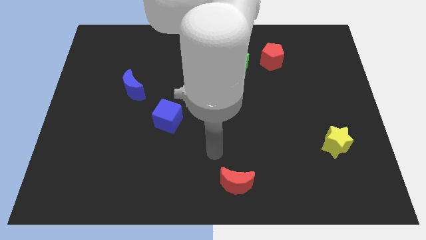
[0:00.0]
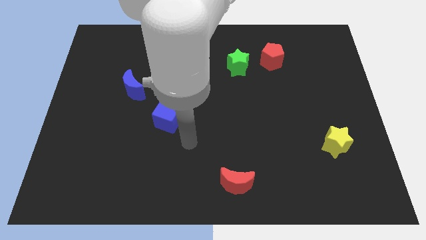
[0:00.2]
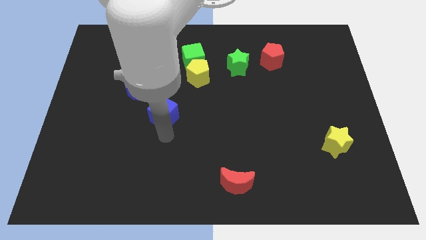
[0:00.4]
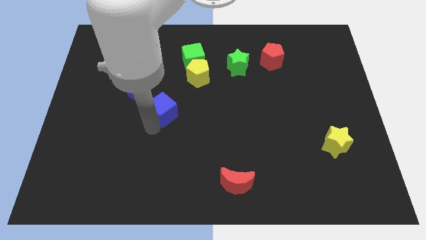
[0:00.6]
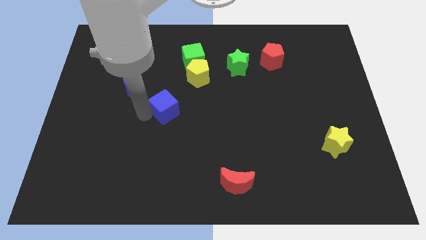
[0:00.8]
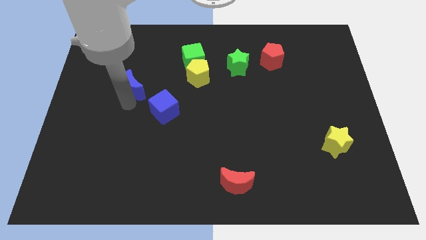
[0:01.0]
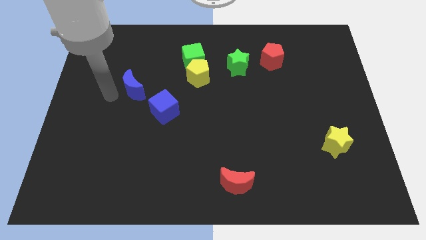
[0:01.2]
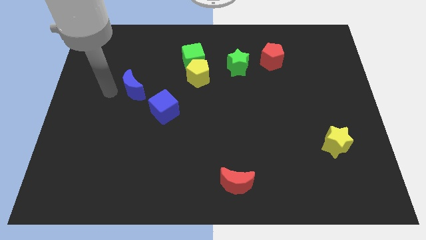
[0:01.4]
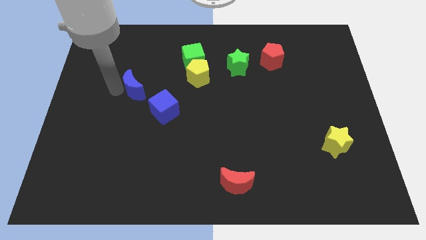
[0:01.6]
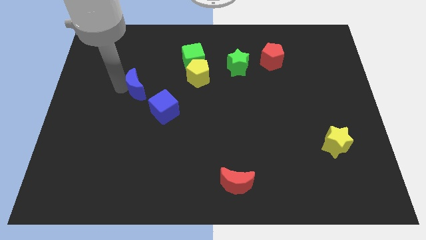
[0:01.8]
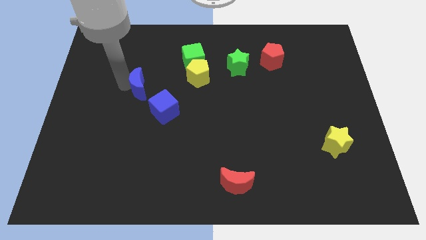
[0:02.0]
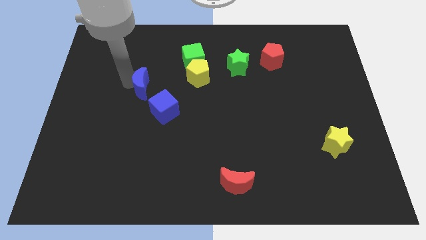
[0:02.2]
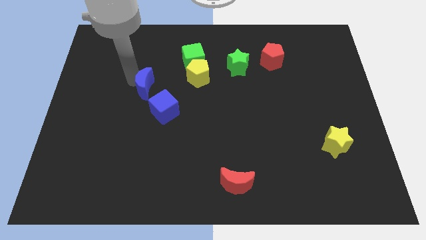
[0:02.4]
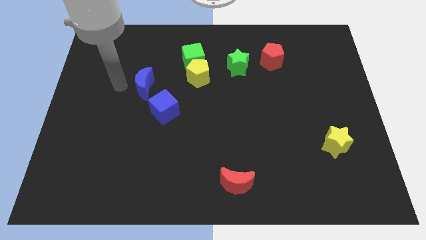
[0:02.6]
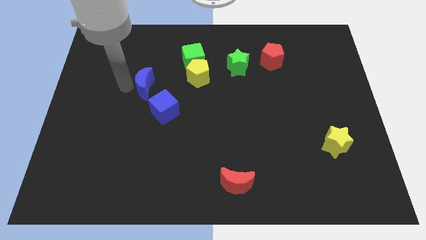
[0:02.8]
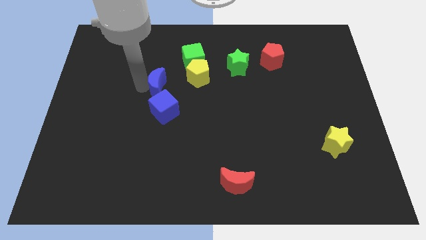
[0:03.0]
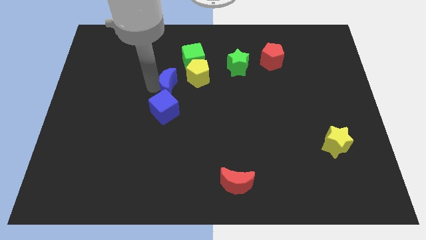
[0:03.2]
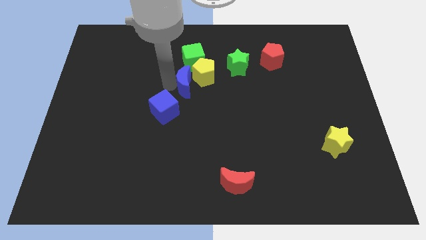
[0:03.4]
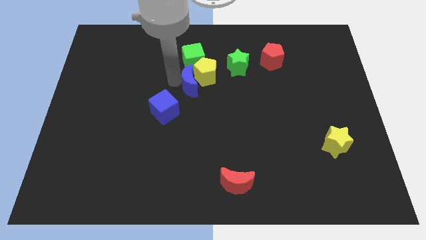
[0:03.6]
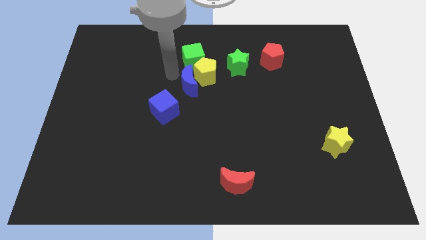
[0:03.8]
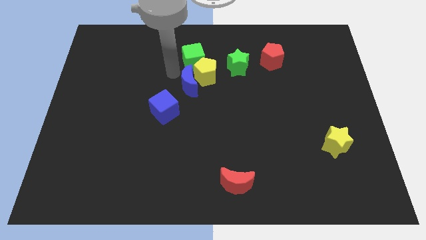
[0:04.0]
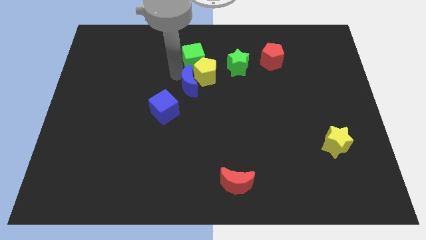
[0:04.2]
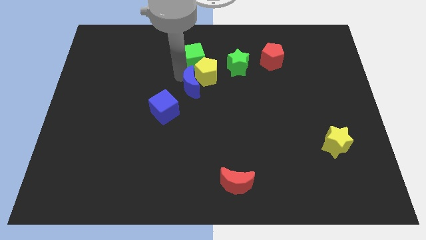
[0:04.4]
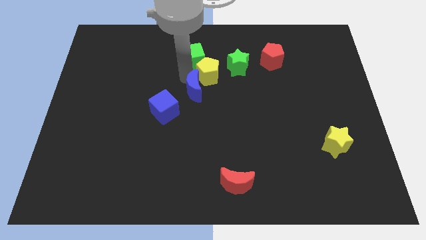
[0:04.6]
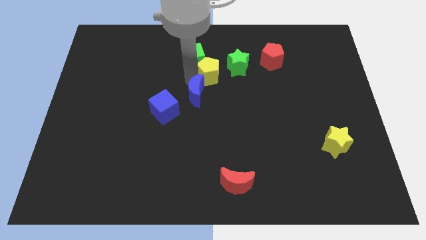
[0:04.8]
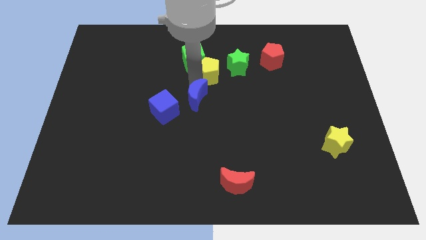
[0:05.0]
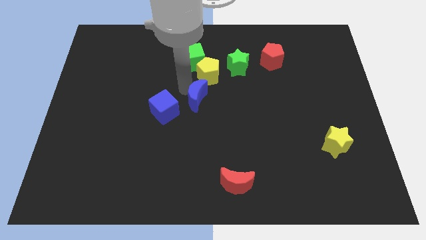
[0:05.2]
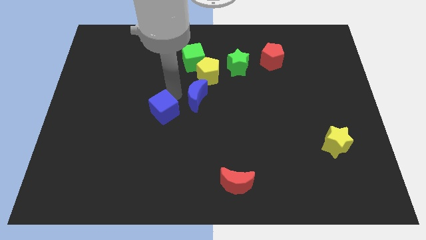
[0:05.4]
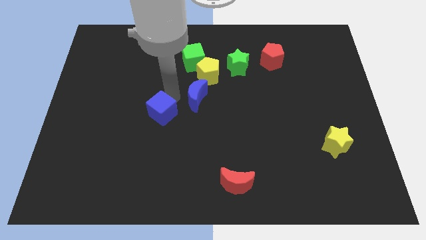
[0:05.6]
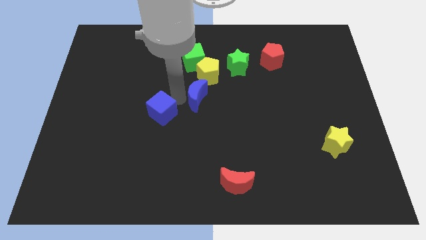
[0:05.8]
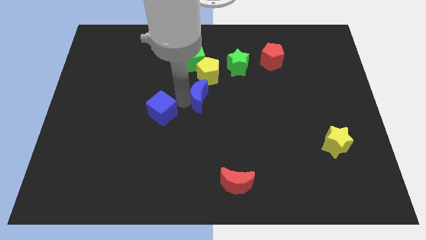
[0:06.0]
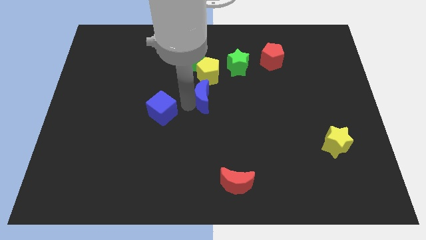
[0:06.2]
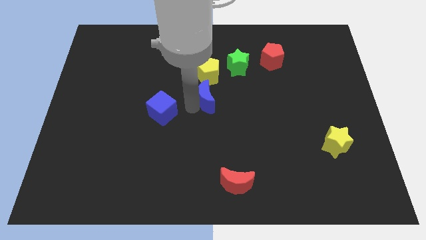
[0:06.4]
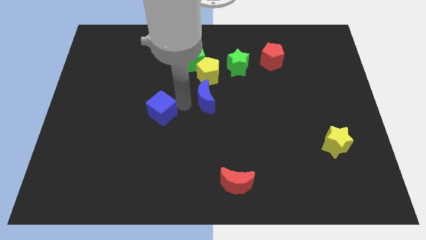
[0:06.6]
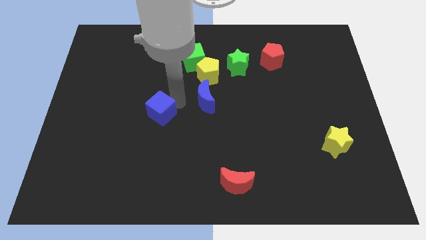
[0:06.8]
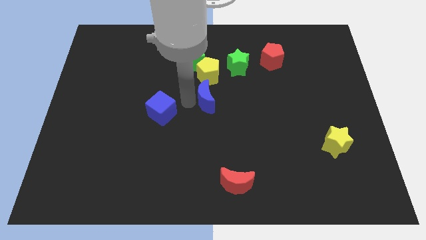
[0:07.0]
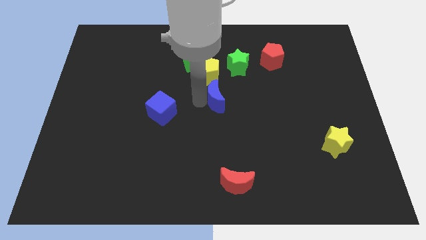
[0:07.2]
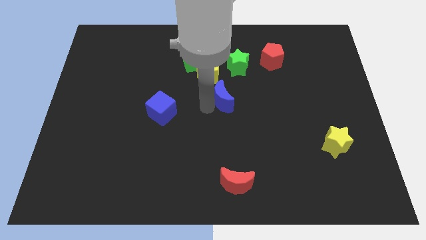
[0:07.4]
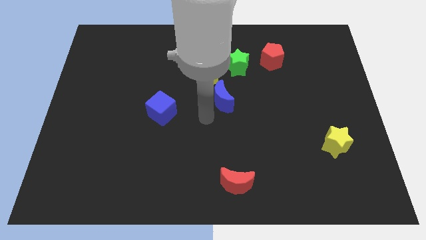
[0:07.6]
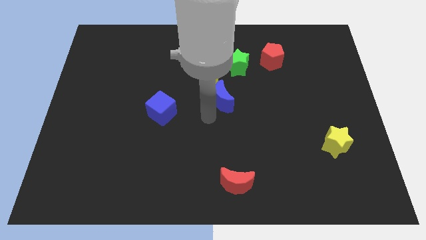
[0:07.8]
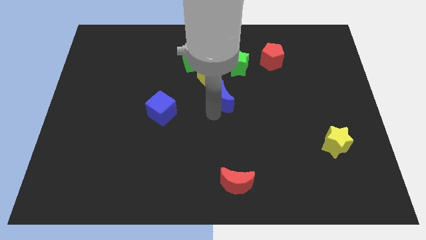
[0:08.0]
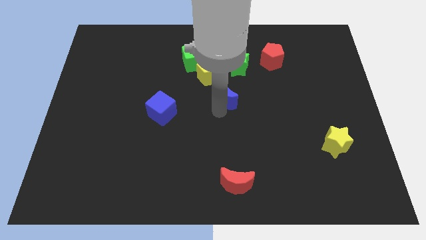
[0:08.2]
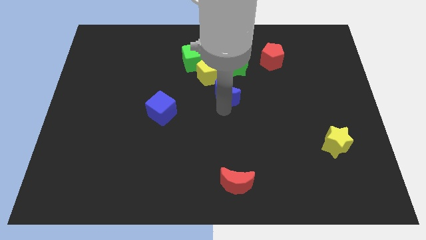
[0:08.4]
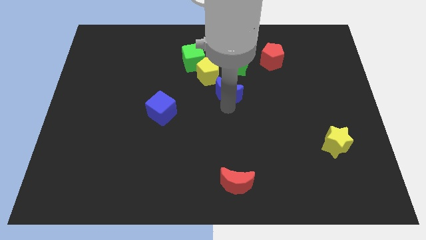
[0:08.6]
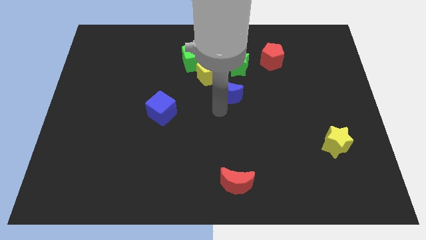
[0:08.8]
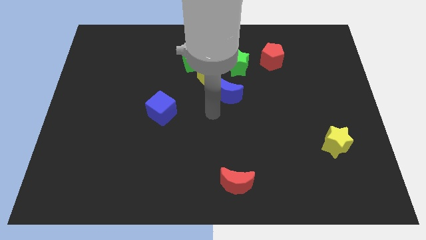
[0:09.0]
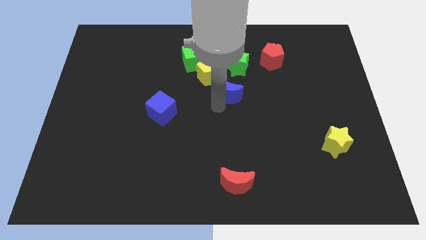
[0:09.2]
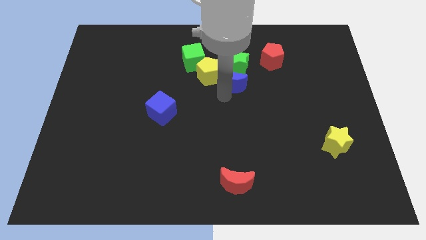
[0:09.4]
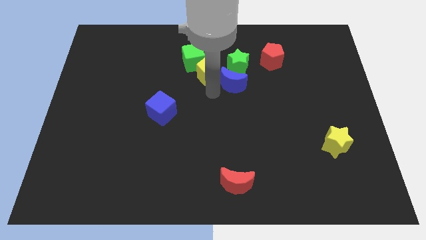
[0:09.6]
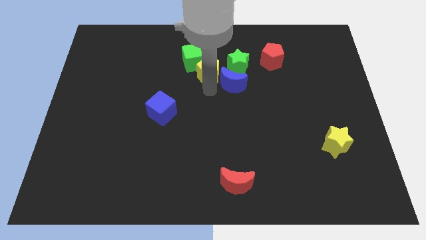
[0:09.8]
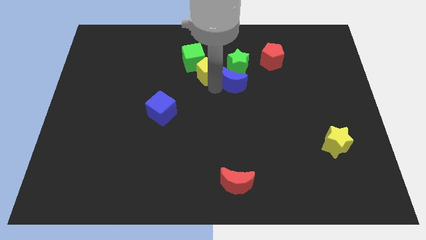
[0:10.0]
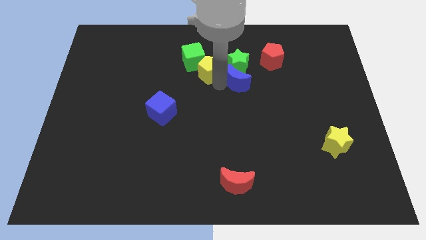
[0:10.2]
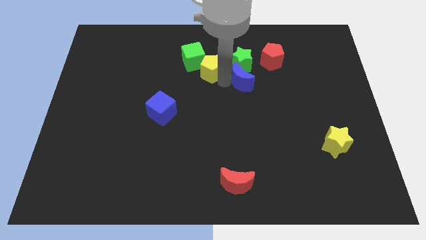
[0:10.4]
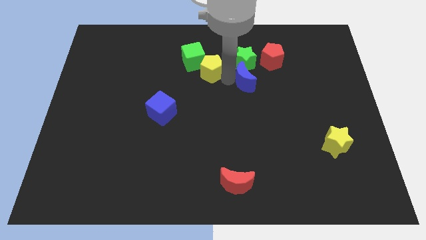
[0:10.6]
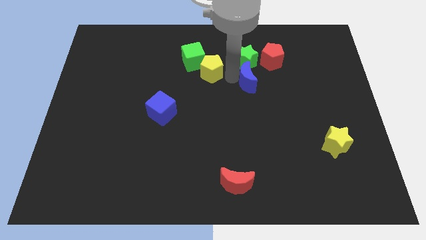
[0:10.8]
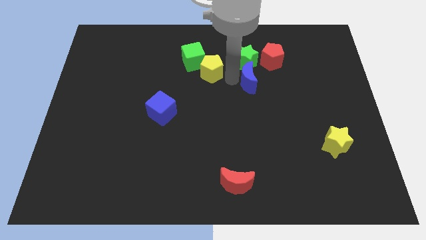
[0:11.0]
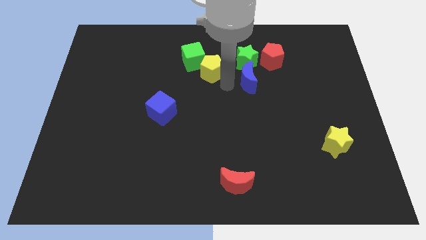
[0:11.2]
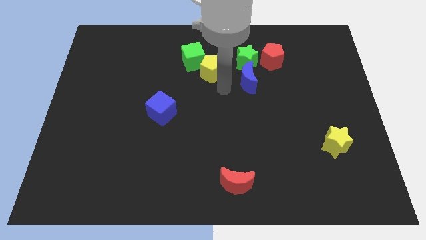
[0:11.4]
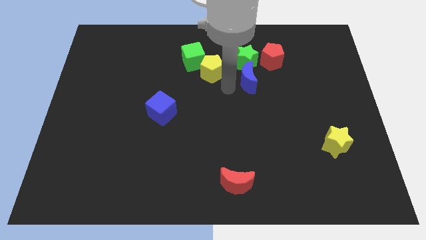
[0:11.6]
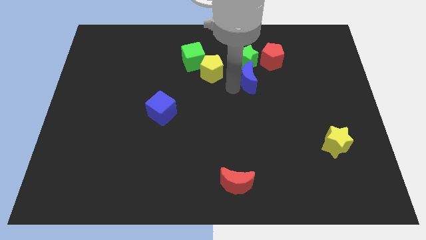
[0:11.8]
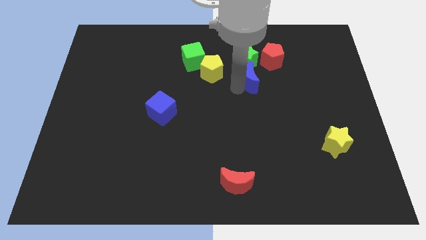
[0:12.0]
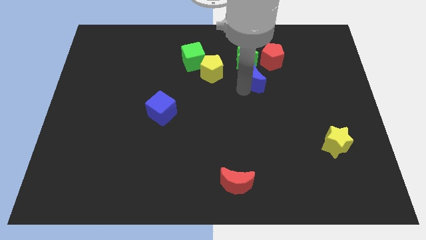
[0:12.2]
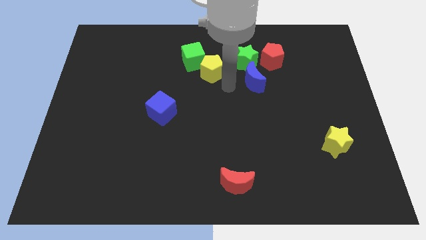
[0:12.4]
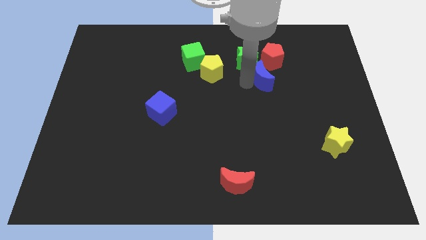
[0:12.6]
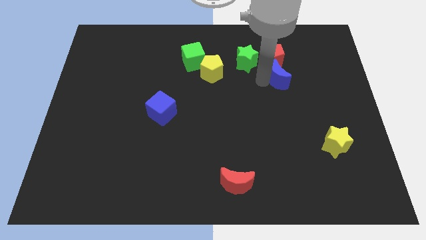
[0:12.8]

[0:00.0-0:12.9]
push the blue moon to the bottom right side of the red pentagon
